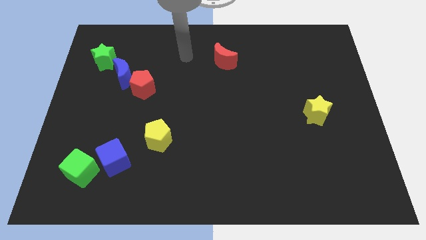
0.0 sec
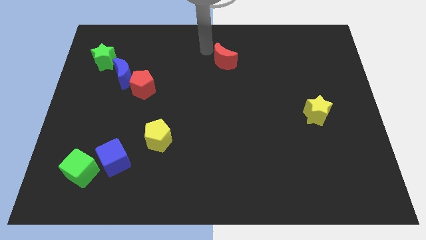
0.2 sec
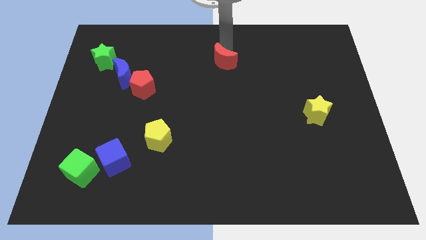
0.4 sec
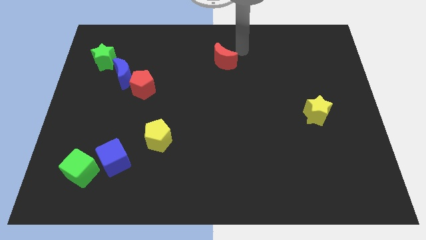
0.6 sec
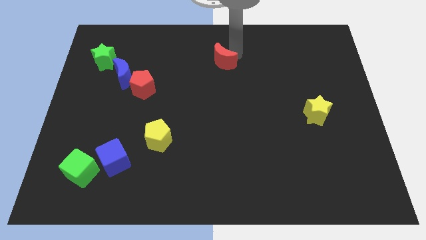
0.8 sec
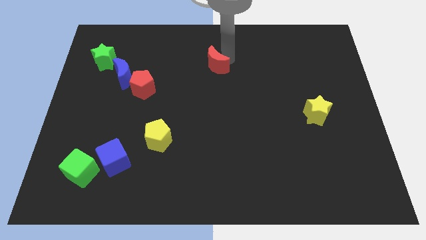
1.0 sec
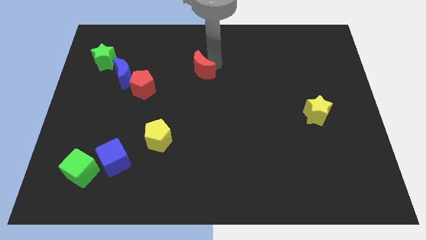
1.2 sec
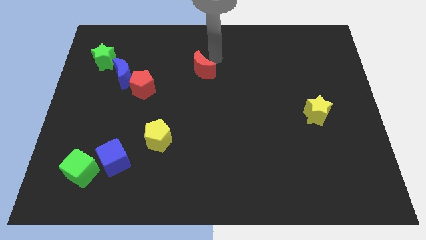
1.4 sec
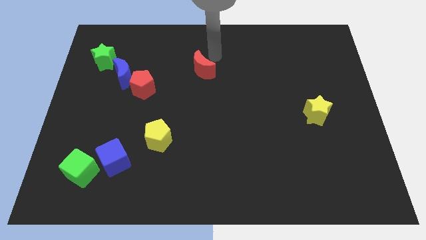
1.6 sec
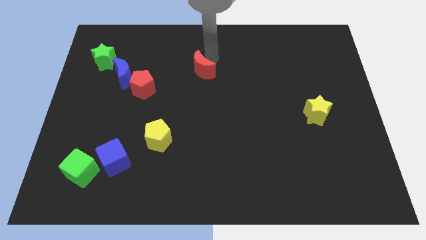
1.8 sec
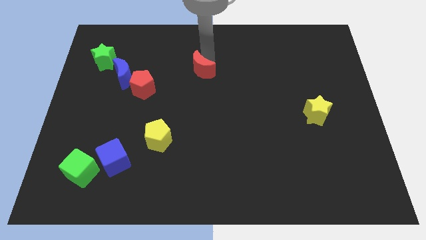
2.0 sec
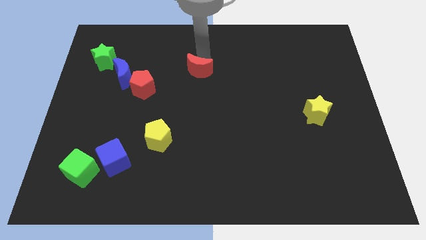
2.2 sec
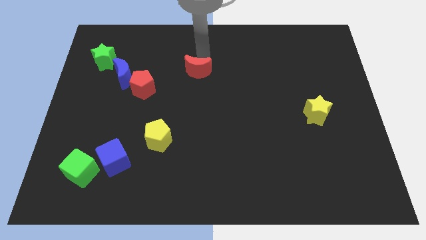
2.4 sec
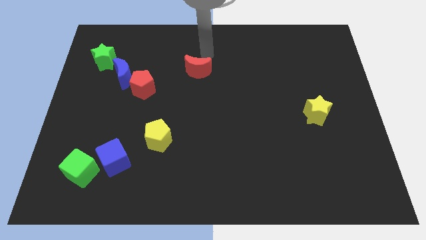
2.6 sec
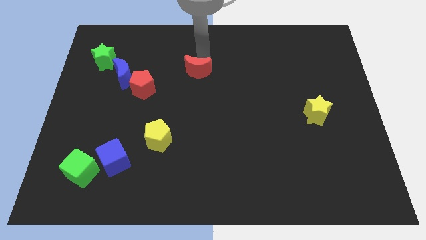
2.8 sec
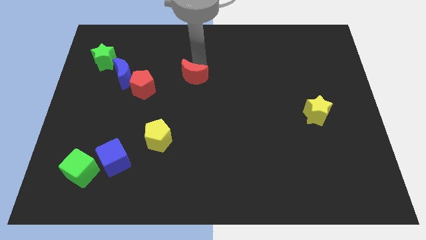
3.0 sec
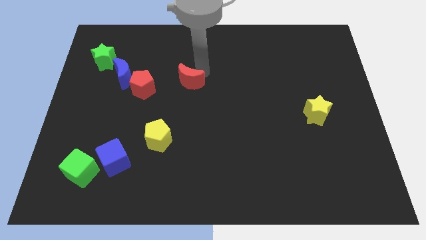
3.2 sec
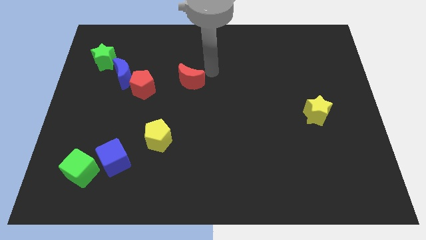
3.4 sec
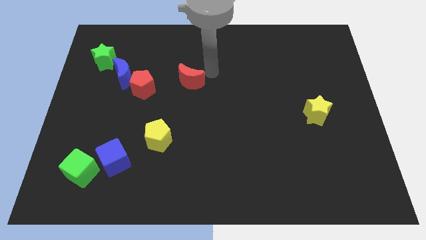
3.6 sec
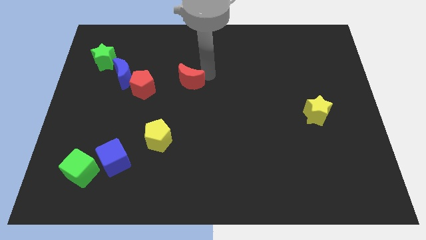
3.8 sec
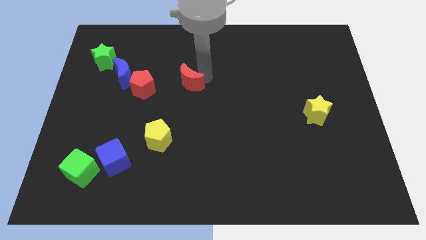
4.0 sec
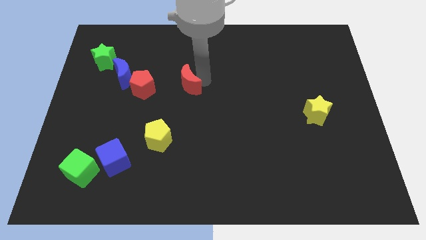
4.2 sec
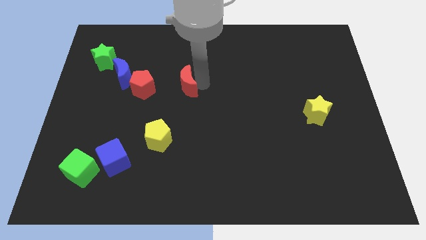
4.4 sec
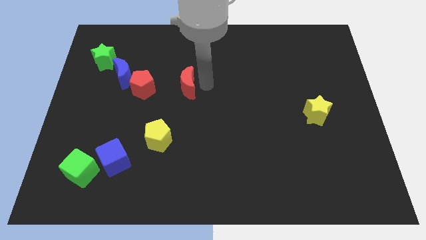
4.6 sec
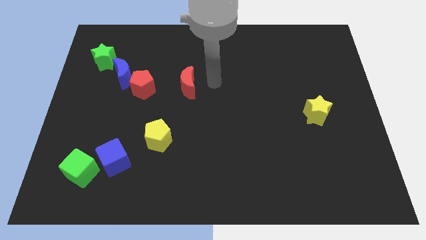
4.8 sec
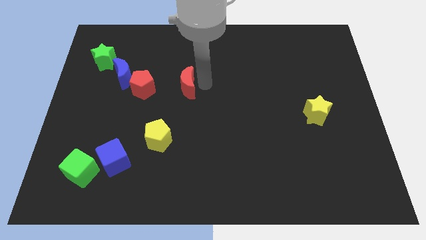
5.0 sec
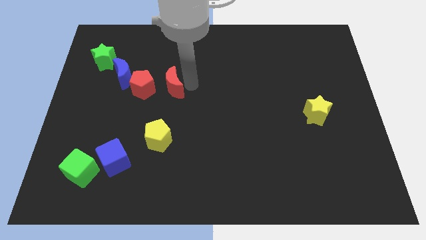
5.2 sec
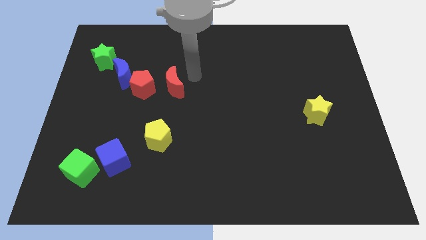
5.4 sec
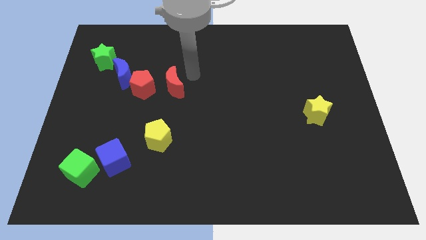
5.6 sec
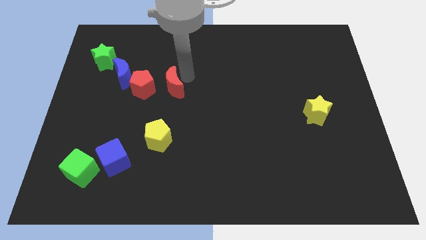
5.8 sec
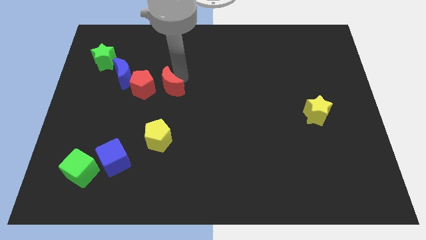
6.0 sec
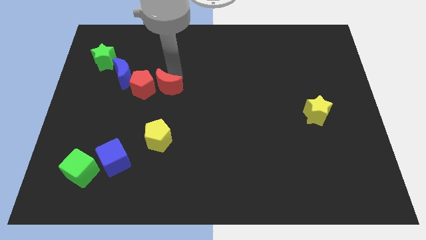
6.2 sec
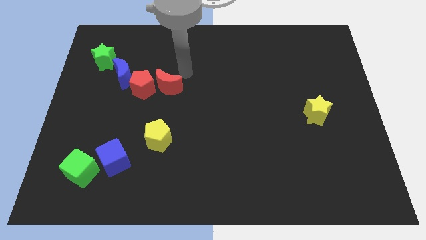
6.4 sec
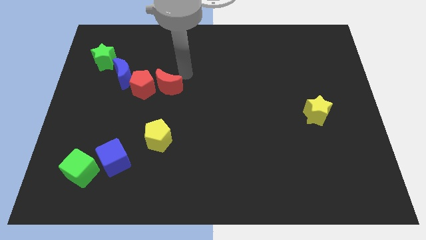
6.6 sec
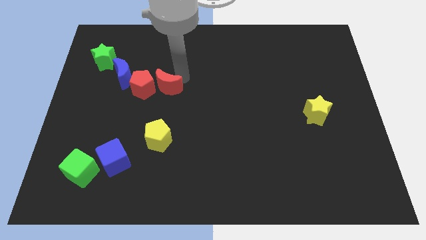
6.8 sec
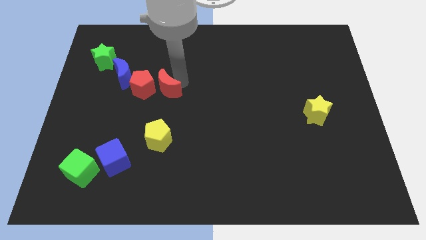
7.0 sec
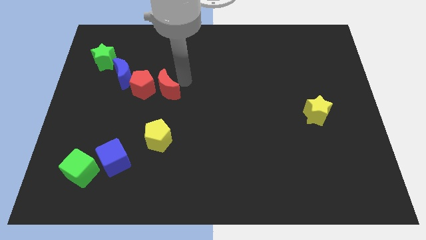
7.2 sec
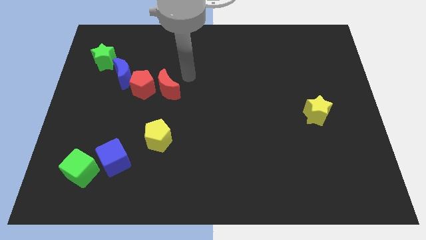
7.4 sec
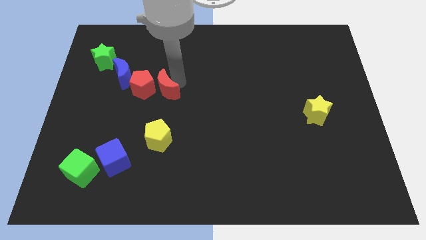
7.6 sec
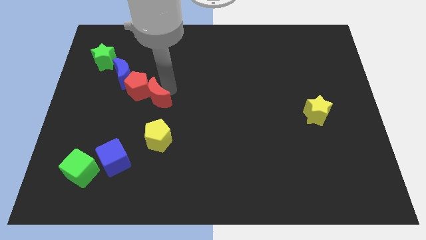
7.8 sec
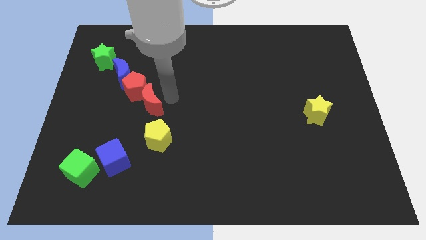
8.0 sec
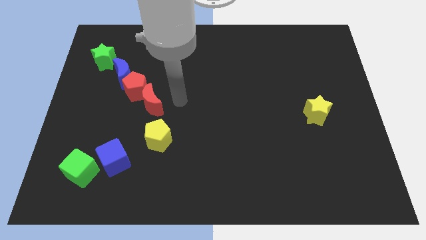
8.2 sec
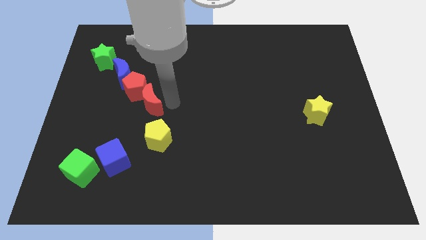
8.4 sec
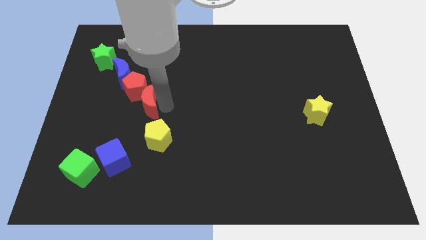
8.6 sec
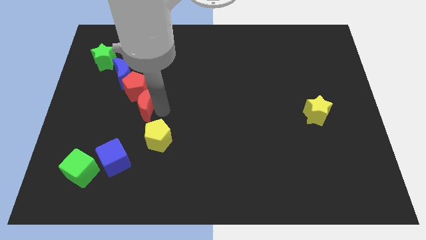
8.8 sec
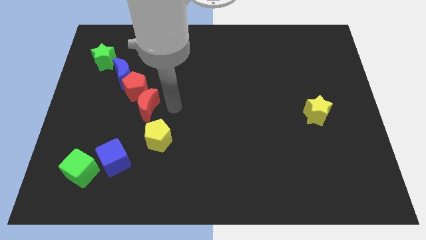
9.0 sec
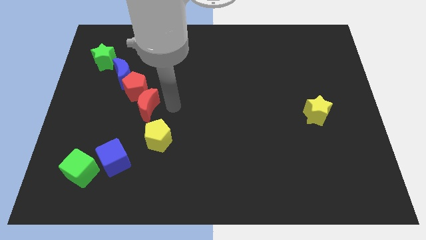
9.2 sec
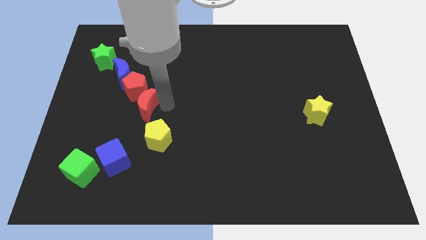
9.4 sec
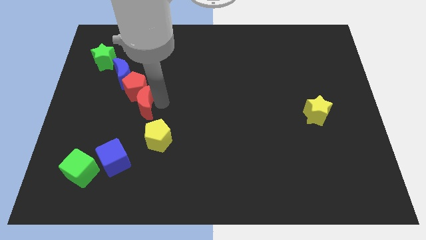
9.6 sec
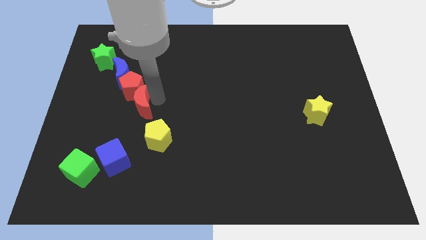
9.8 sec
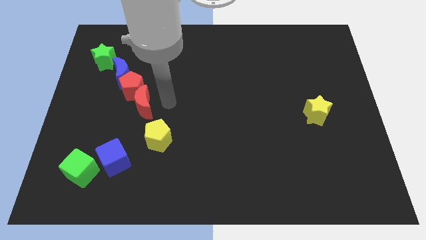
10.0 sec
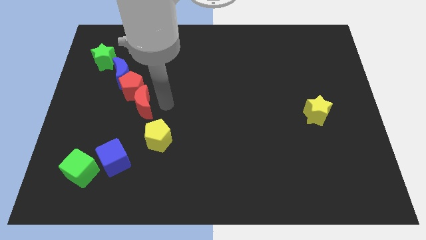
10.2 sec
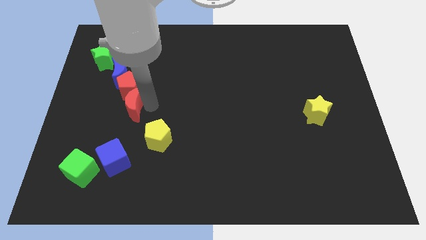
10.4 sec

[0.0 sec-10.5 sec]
move the red moon below the blue moon

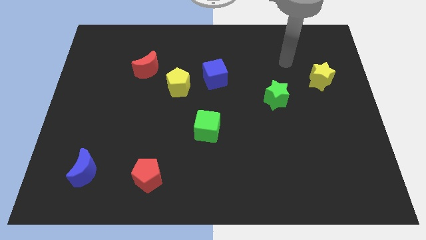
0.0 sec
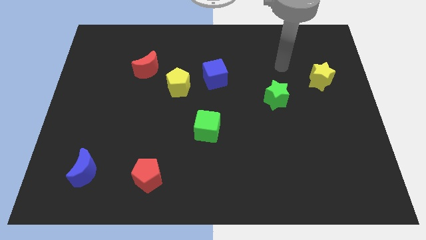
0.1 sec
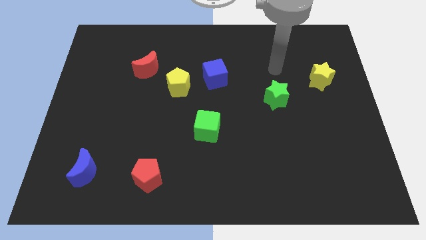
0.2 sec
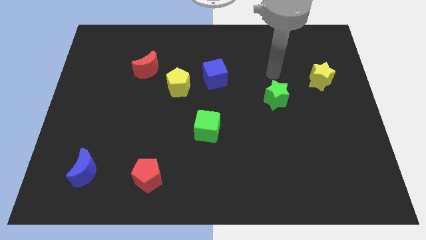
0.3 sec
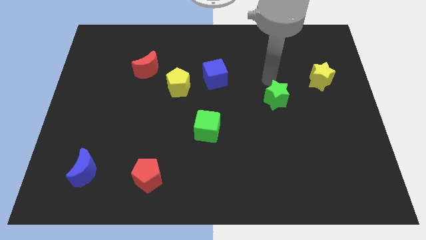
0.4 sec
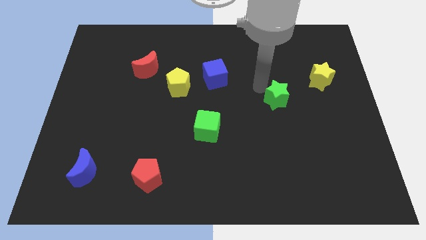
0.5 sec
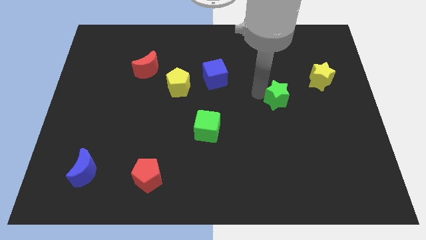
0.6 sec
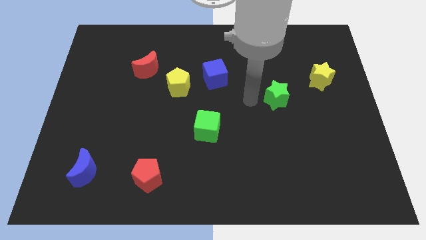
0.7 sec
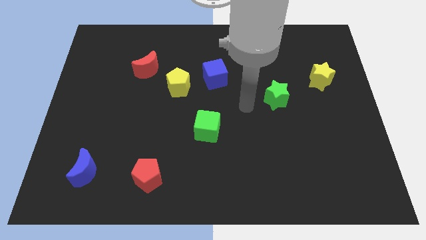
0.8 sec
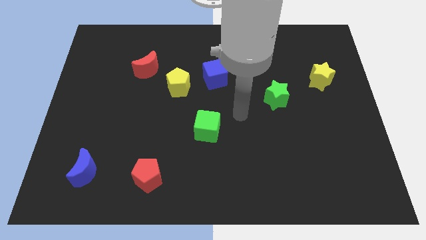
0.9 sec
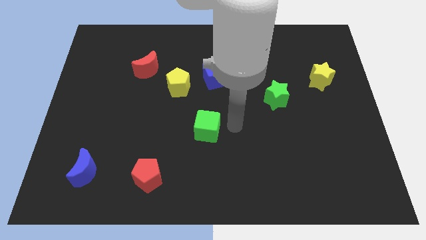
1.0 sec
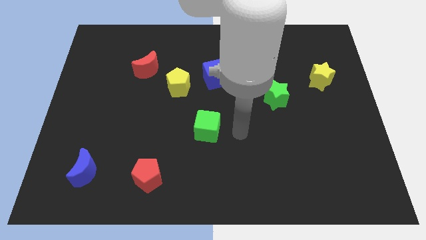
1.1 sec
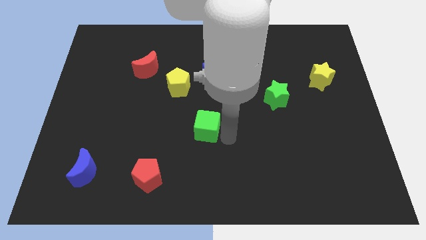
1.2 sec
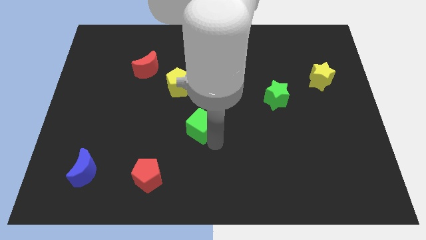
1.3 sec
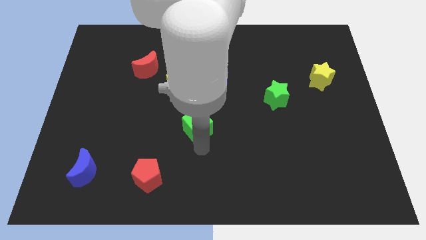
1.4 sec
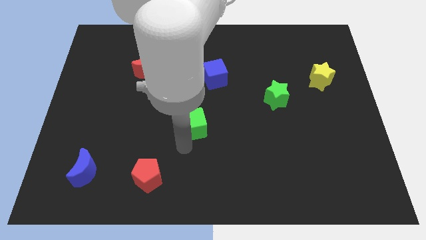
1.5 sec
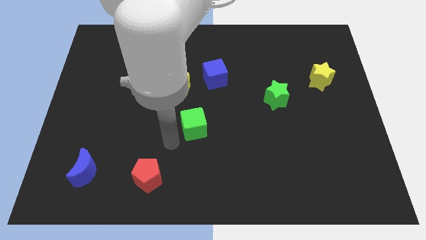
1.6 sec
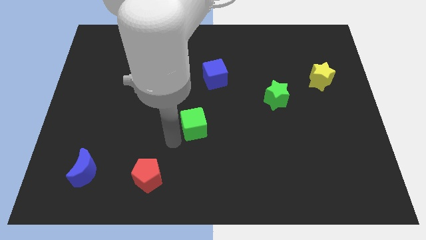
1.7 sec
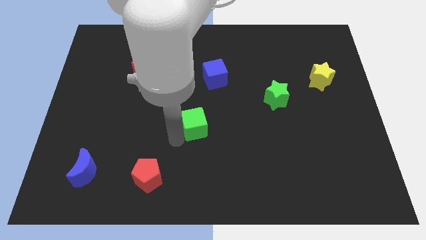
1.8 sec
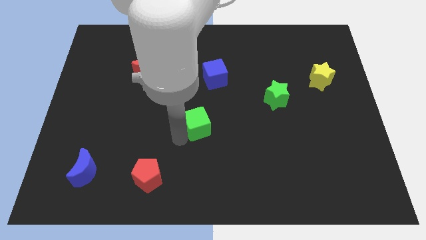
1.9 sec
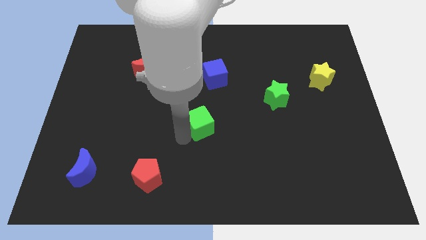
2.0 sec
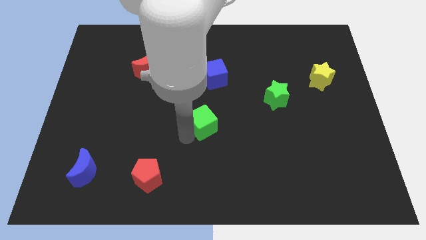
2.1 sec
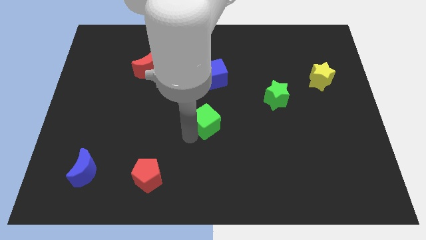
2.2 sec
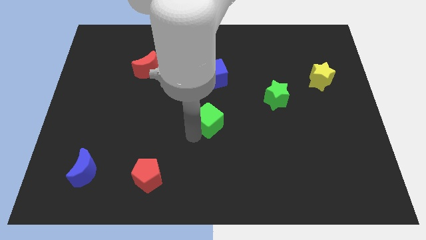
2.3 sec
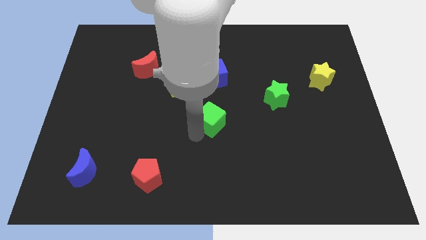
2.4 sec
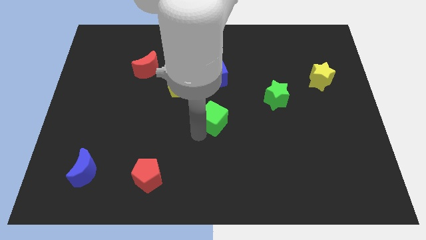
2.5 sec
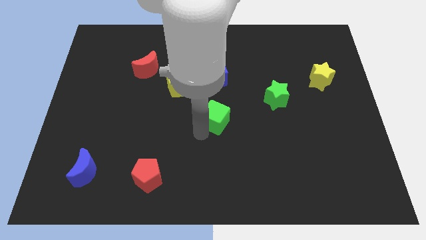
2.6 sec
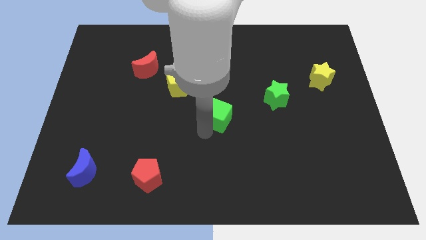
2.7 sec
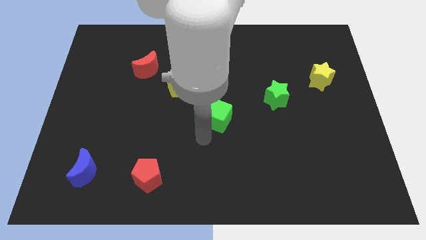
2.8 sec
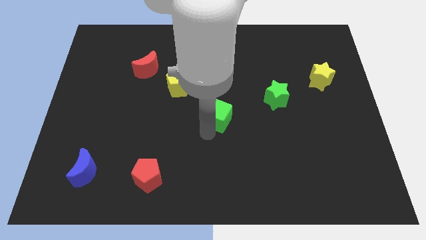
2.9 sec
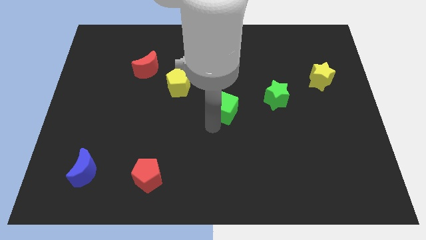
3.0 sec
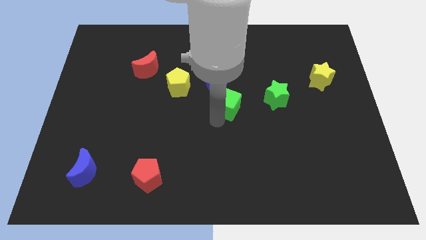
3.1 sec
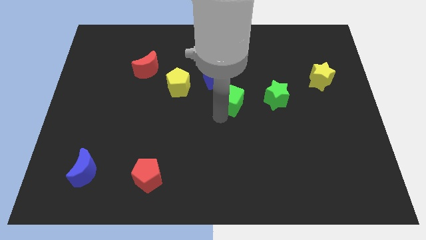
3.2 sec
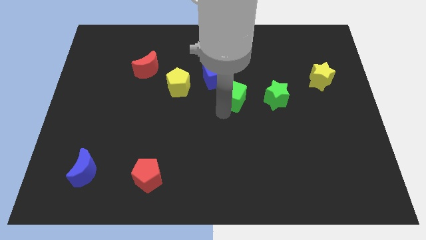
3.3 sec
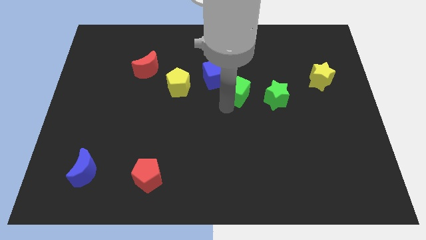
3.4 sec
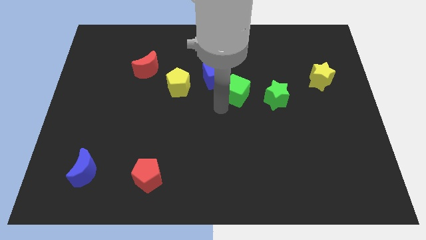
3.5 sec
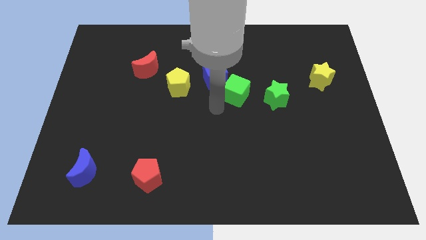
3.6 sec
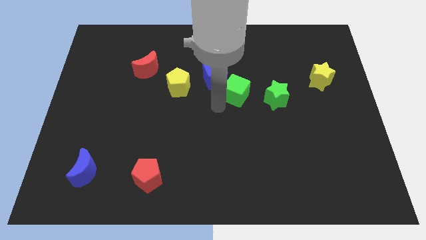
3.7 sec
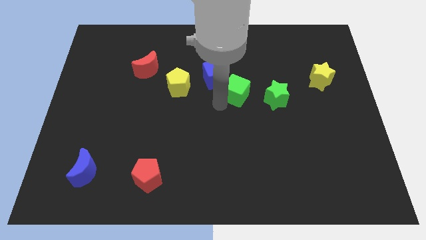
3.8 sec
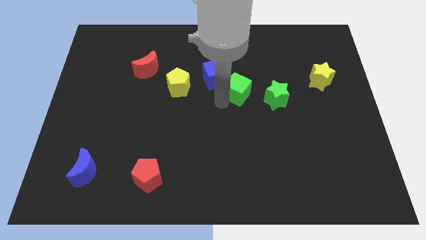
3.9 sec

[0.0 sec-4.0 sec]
put the green cube to the top left of the green star
